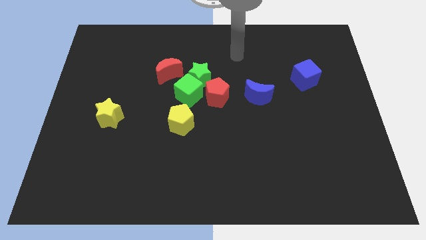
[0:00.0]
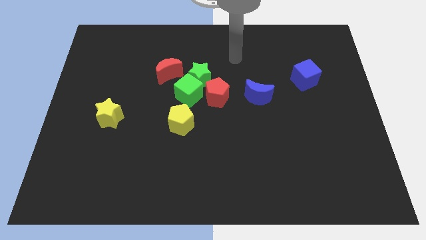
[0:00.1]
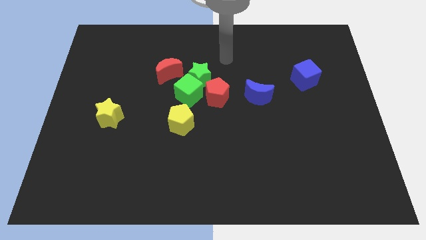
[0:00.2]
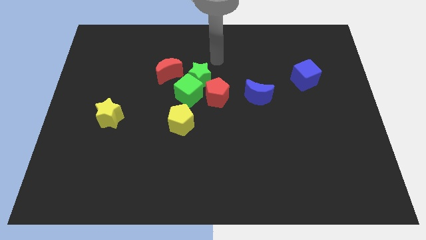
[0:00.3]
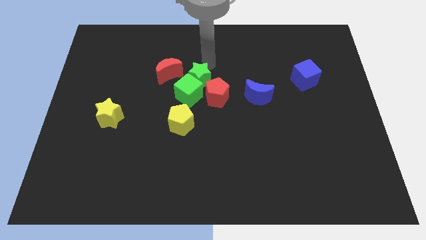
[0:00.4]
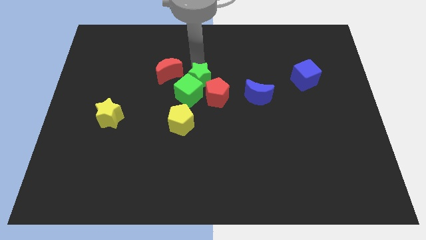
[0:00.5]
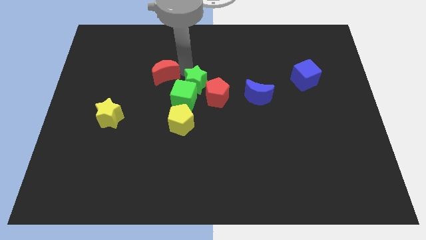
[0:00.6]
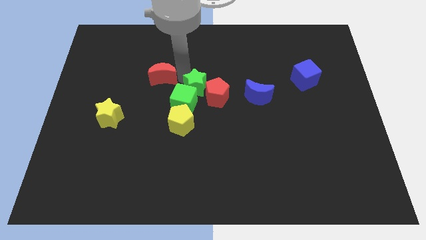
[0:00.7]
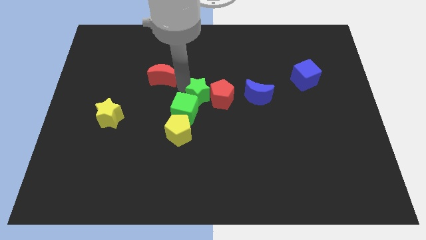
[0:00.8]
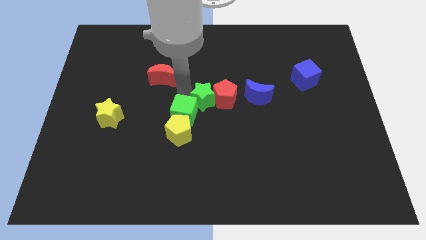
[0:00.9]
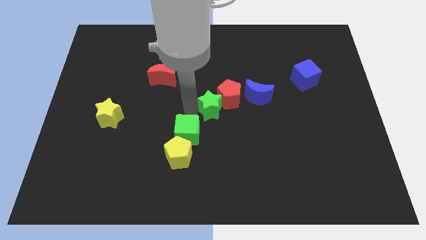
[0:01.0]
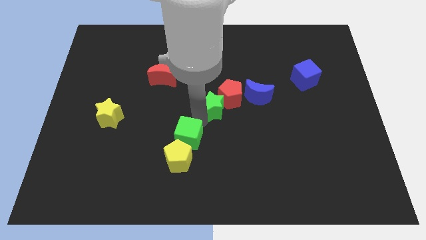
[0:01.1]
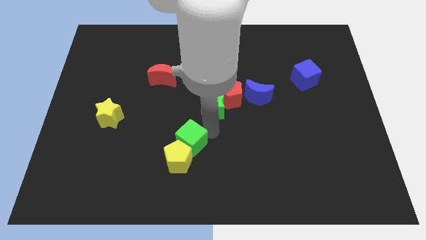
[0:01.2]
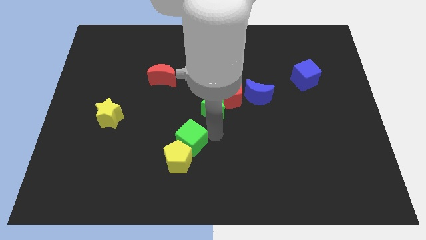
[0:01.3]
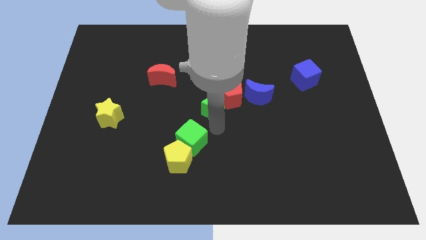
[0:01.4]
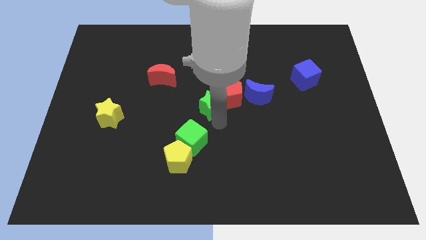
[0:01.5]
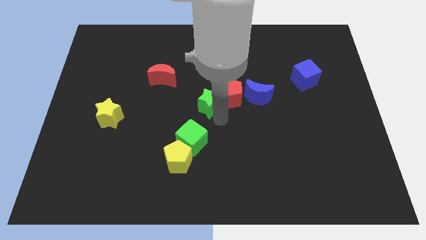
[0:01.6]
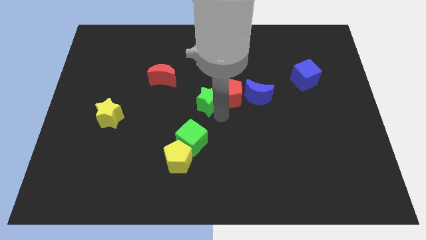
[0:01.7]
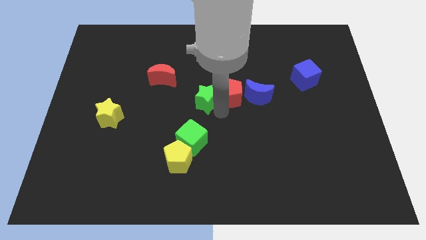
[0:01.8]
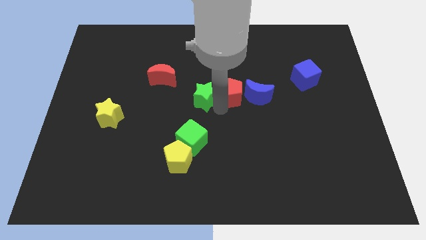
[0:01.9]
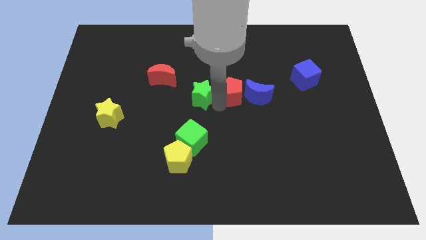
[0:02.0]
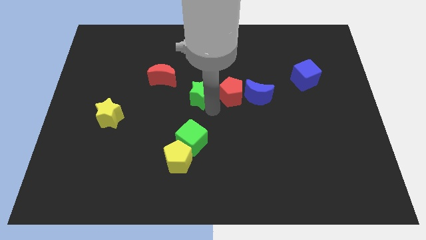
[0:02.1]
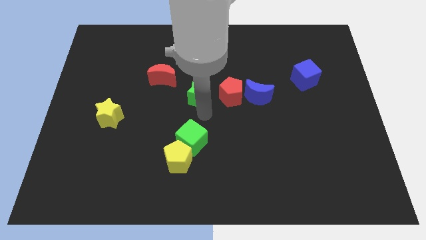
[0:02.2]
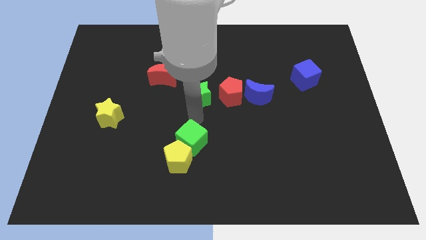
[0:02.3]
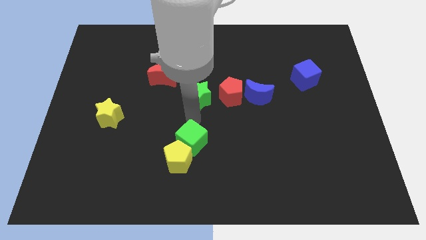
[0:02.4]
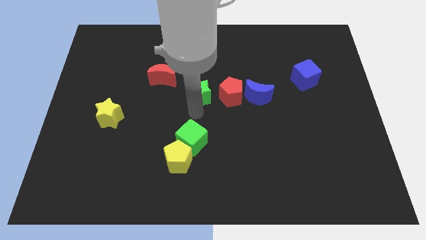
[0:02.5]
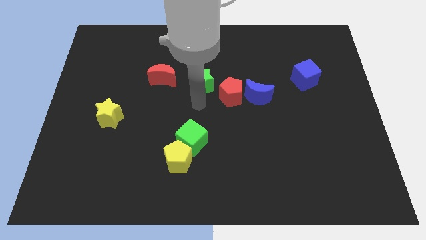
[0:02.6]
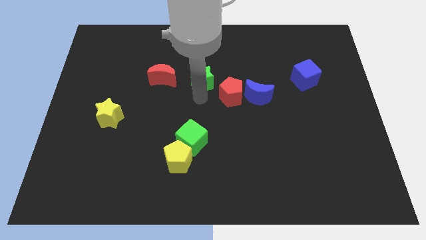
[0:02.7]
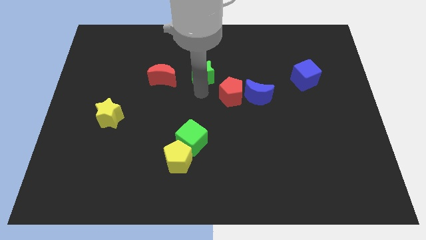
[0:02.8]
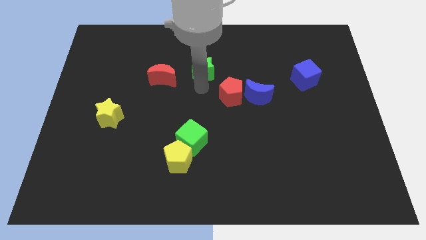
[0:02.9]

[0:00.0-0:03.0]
pull the green star apart from the group of blocks

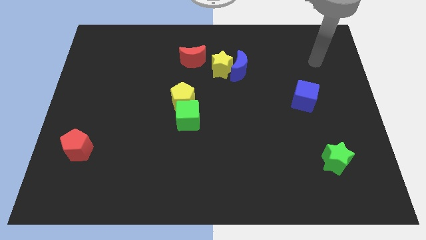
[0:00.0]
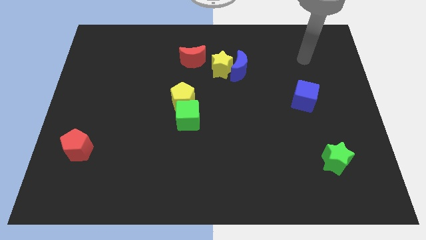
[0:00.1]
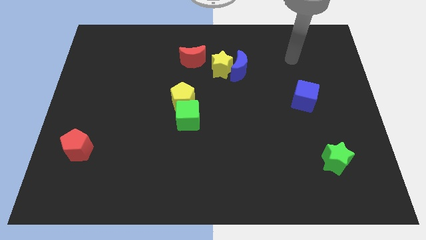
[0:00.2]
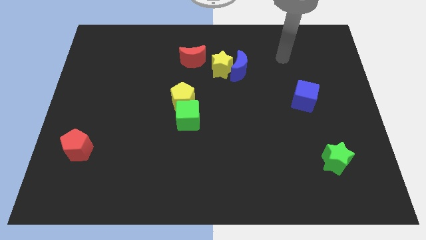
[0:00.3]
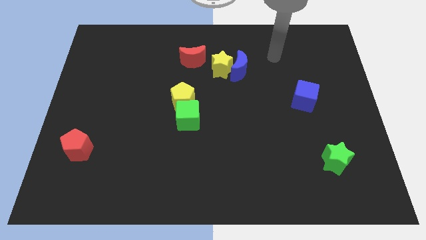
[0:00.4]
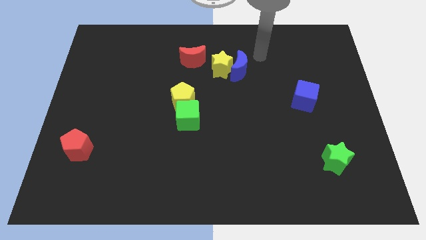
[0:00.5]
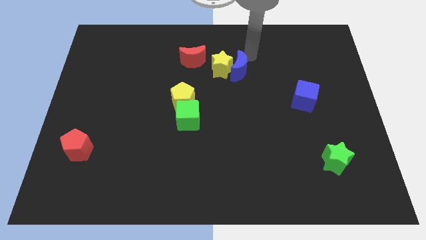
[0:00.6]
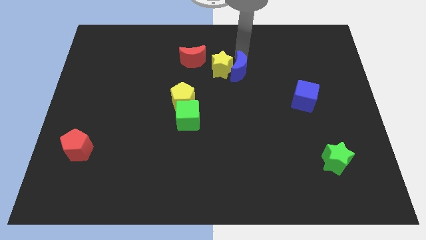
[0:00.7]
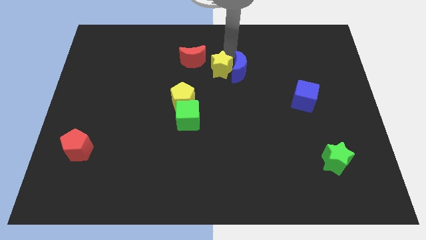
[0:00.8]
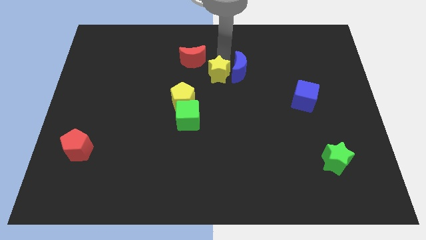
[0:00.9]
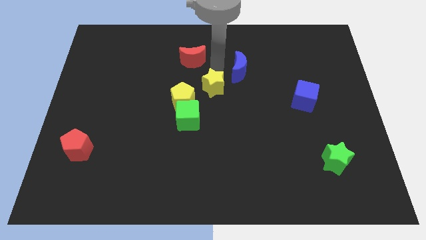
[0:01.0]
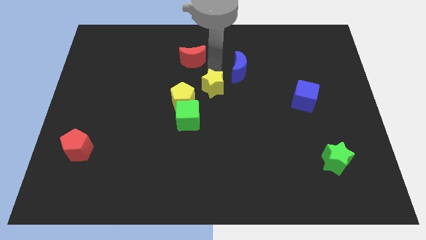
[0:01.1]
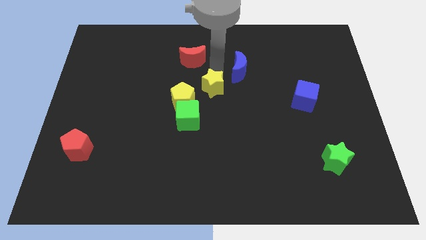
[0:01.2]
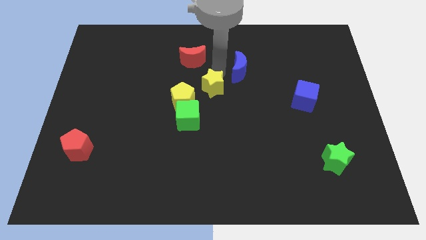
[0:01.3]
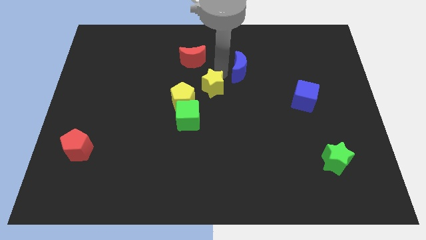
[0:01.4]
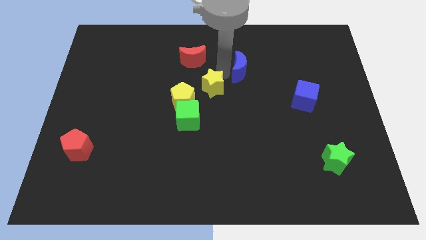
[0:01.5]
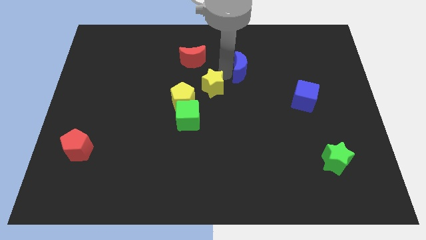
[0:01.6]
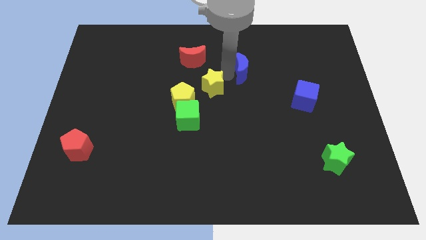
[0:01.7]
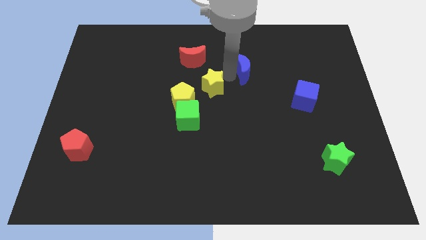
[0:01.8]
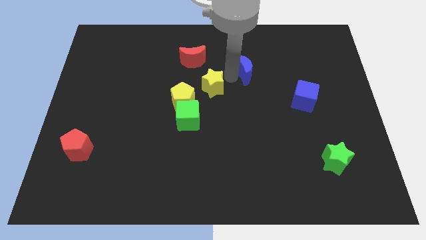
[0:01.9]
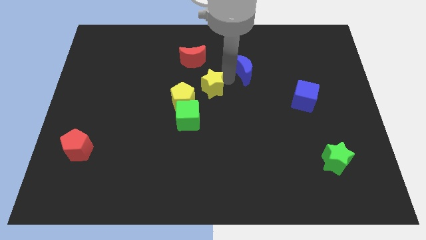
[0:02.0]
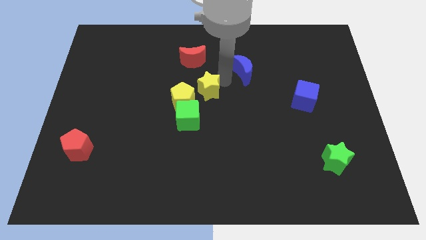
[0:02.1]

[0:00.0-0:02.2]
pull the blue moon apart from the yellow star

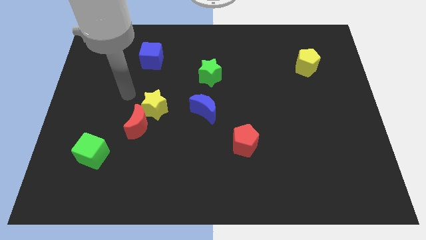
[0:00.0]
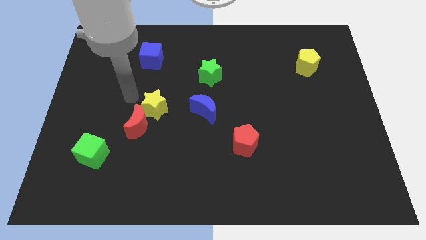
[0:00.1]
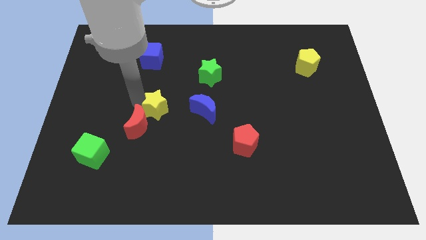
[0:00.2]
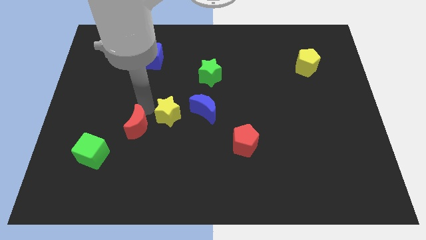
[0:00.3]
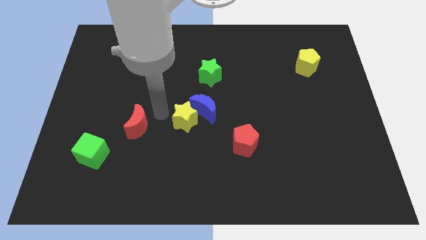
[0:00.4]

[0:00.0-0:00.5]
move the red moon away from the yellow star

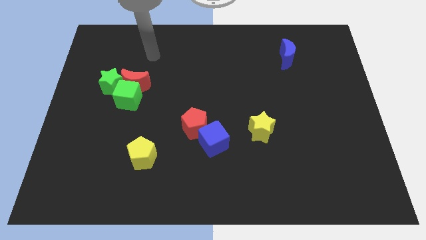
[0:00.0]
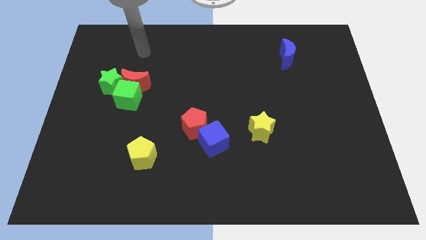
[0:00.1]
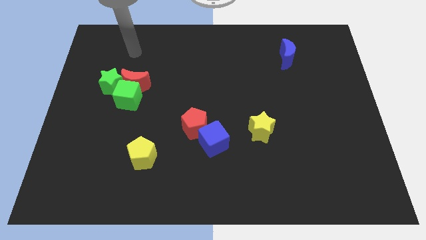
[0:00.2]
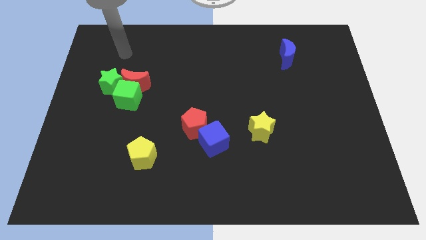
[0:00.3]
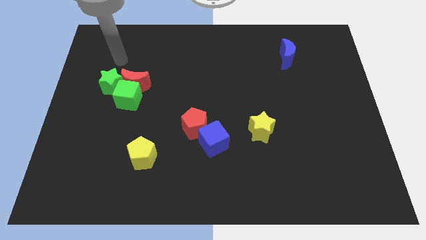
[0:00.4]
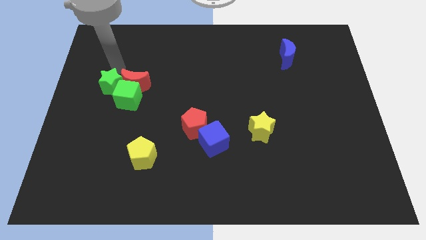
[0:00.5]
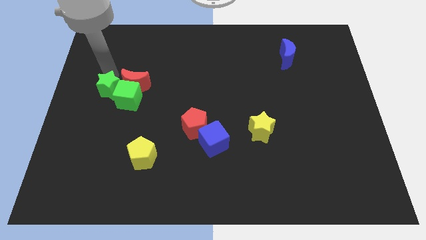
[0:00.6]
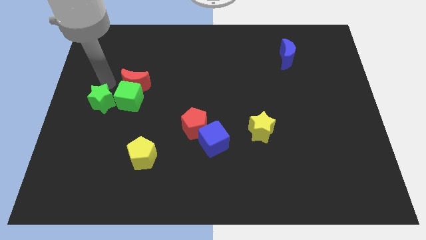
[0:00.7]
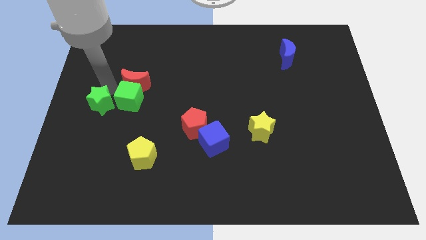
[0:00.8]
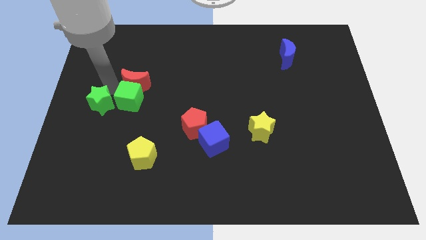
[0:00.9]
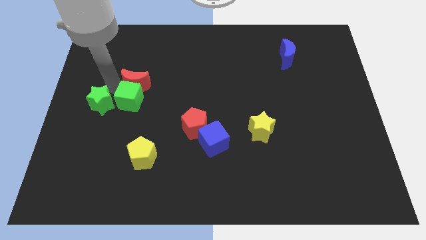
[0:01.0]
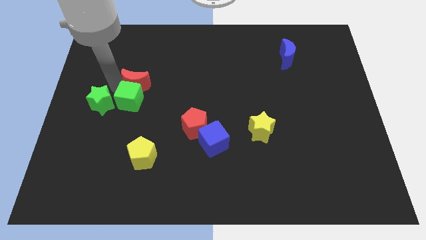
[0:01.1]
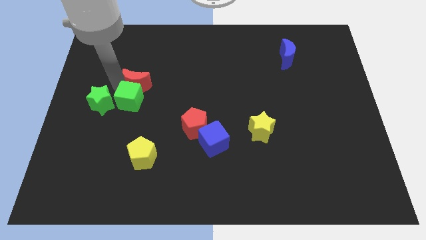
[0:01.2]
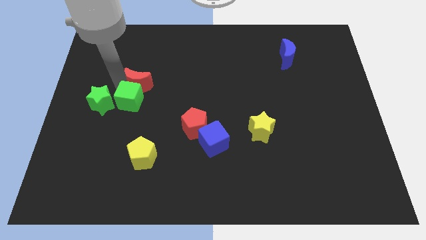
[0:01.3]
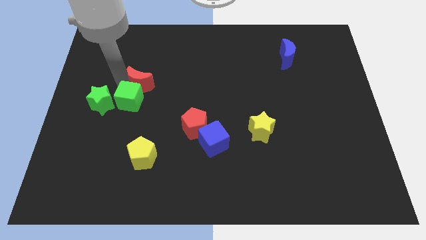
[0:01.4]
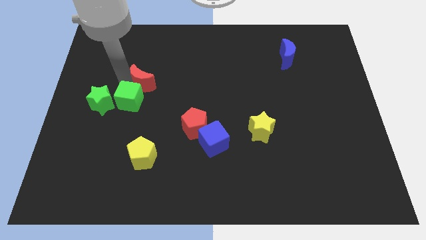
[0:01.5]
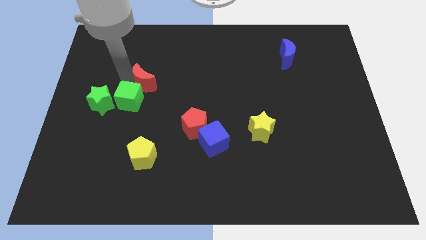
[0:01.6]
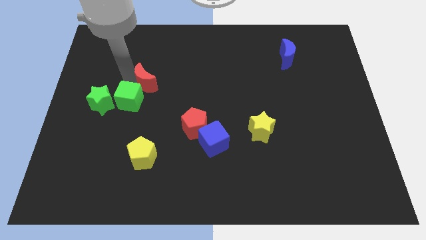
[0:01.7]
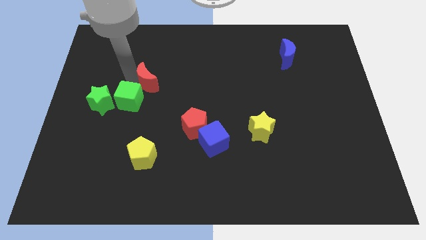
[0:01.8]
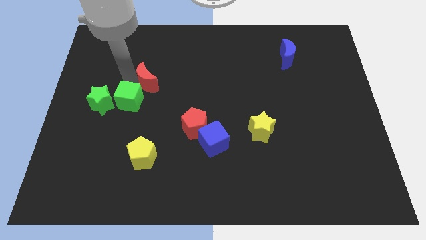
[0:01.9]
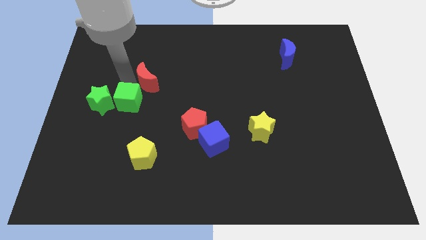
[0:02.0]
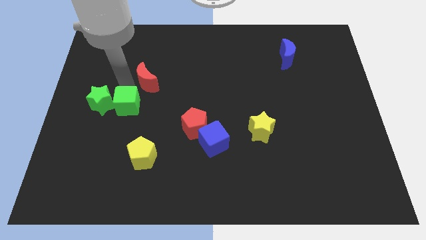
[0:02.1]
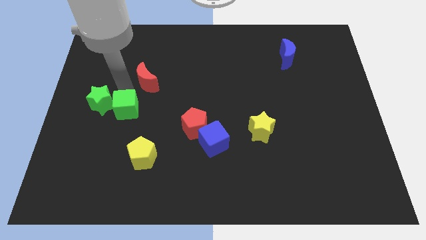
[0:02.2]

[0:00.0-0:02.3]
pull the red moon apart from the green cube and green star

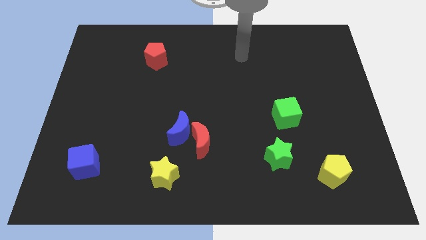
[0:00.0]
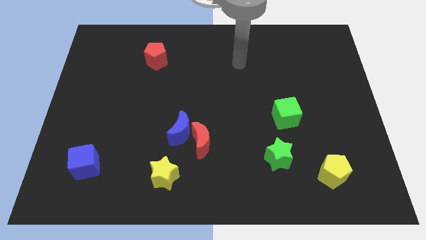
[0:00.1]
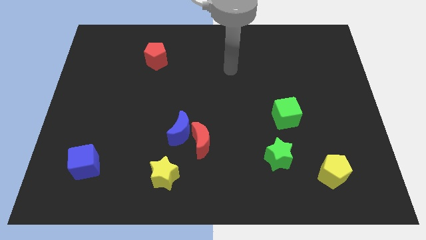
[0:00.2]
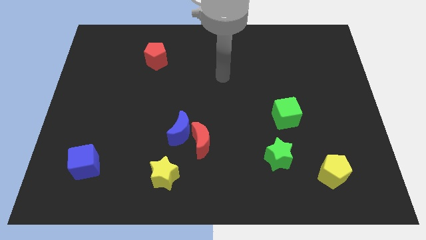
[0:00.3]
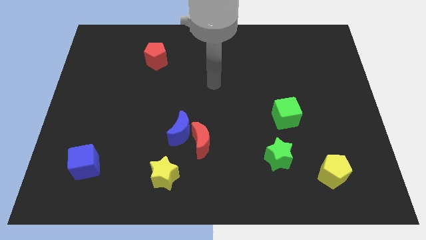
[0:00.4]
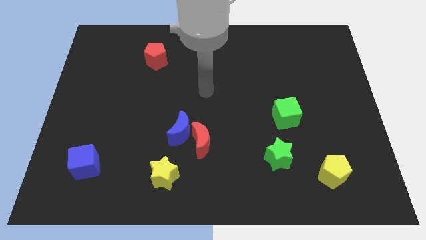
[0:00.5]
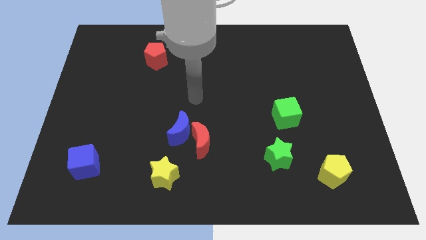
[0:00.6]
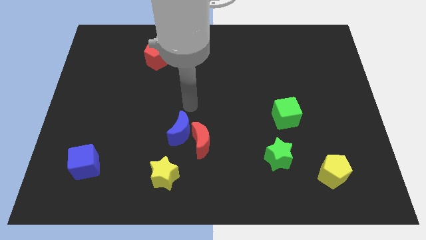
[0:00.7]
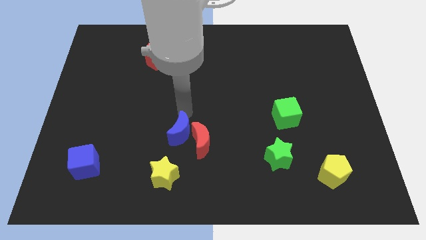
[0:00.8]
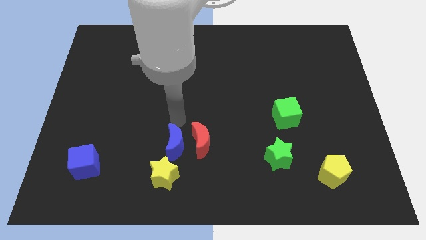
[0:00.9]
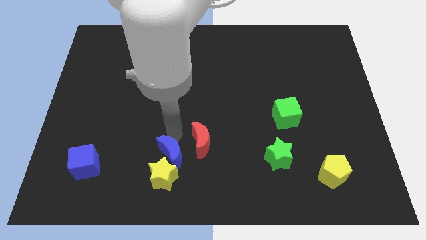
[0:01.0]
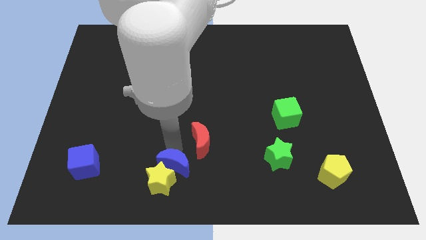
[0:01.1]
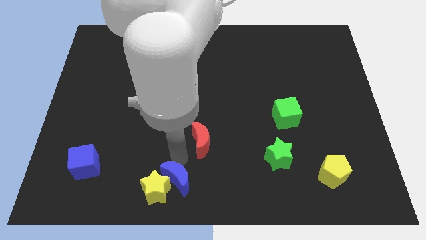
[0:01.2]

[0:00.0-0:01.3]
pull the red moon apart from the blue moon

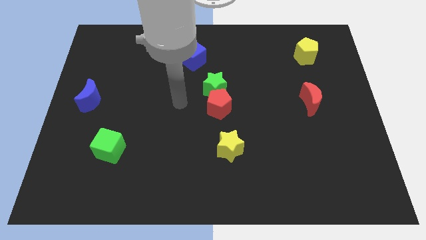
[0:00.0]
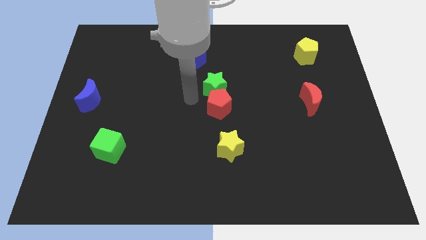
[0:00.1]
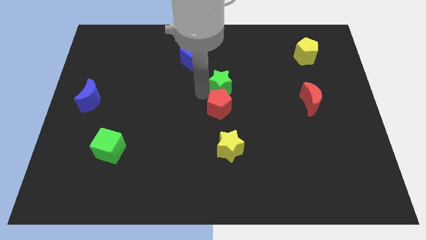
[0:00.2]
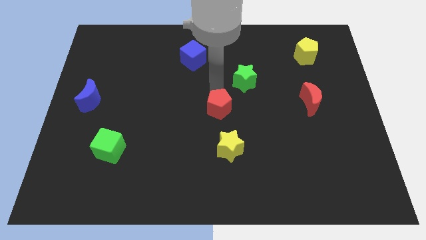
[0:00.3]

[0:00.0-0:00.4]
move the red pentagon away from the green star
